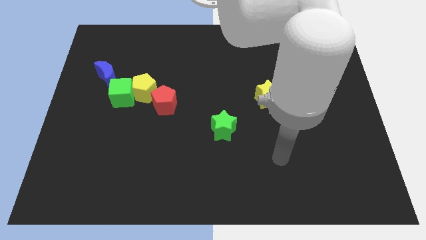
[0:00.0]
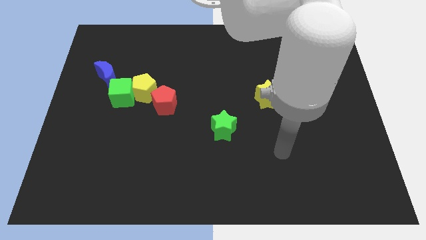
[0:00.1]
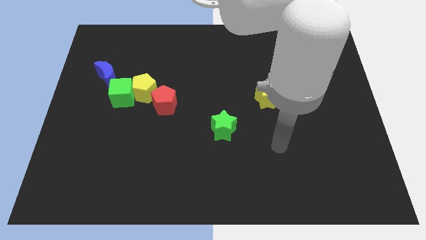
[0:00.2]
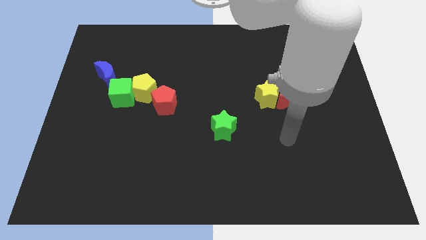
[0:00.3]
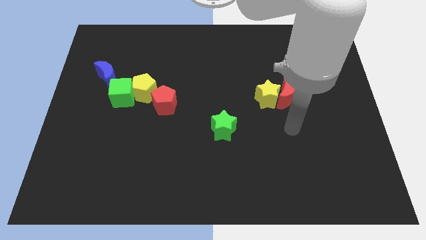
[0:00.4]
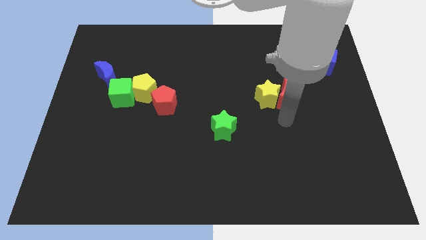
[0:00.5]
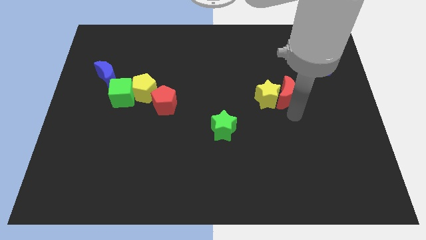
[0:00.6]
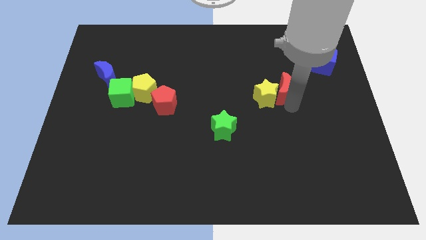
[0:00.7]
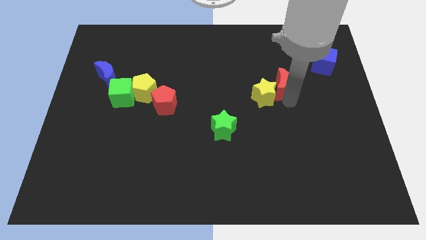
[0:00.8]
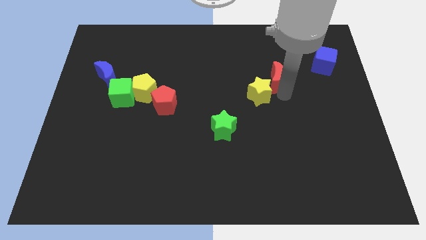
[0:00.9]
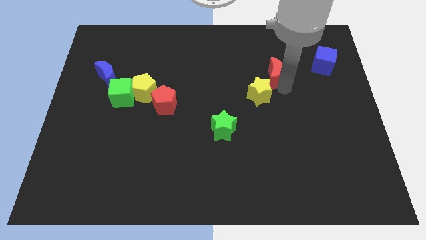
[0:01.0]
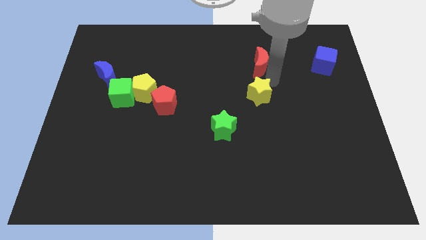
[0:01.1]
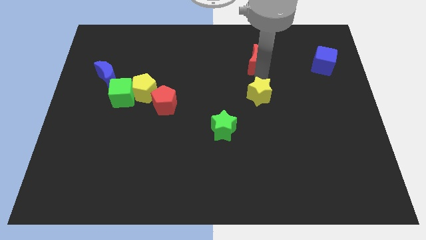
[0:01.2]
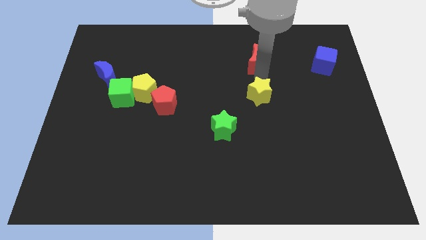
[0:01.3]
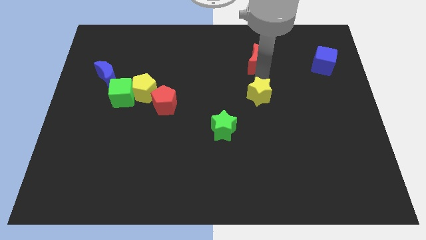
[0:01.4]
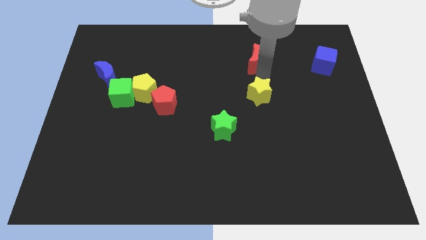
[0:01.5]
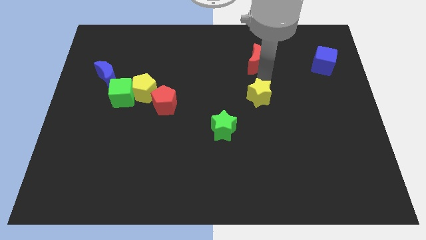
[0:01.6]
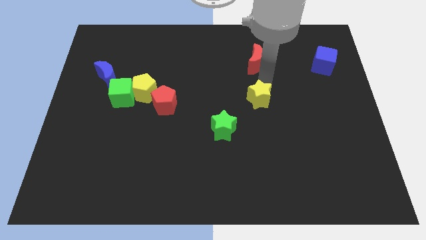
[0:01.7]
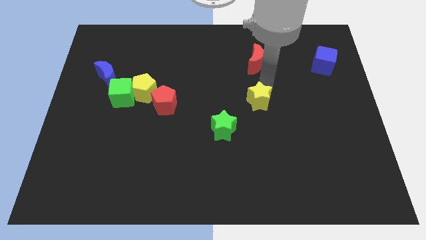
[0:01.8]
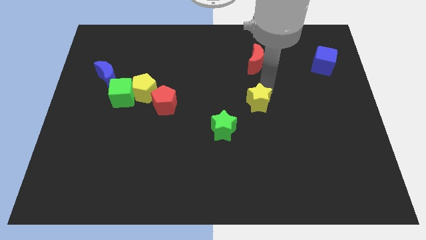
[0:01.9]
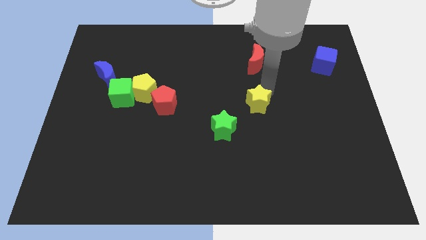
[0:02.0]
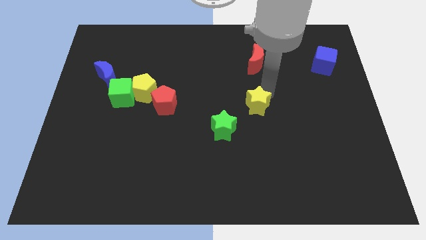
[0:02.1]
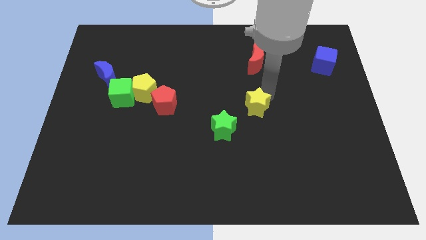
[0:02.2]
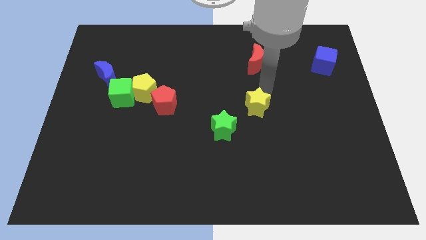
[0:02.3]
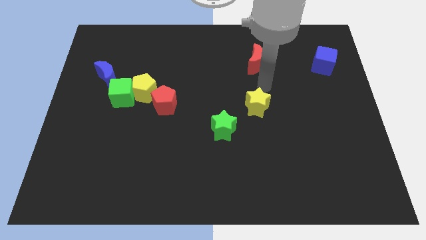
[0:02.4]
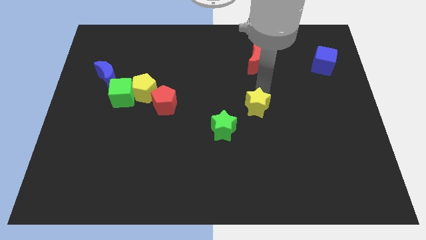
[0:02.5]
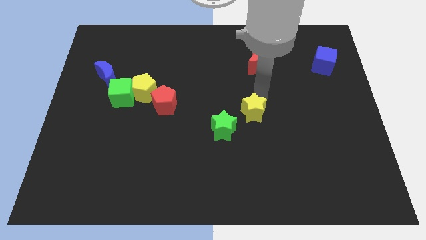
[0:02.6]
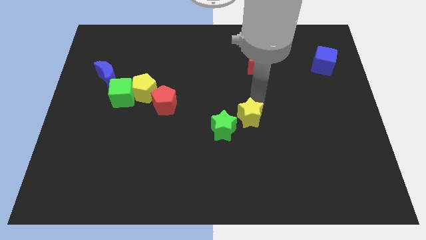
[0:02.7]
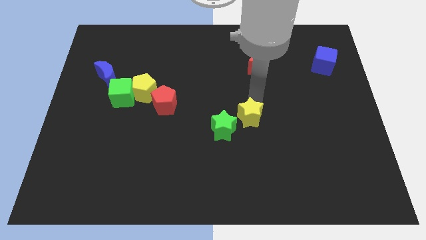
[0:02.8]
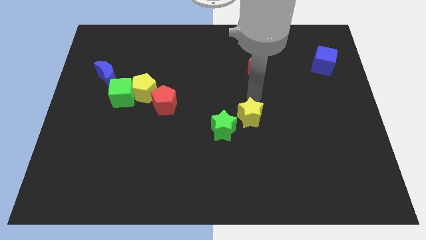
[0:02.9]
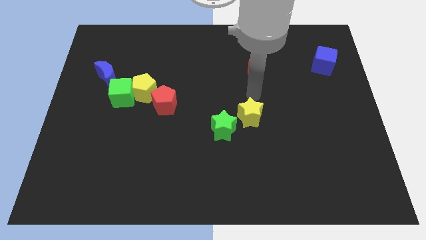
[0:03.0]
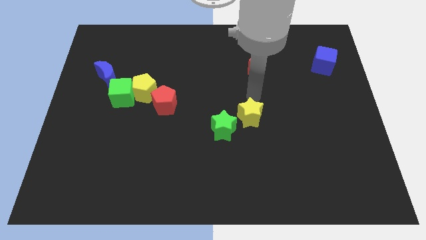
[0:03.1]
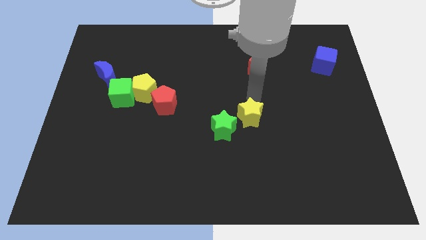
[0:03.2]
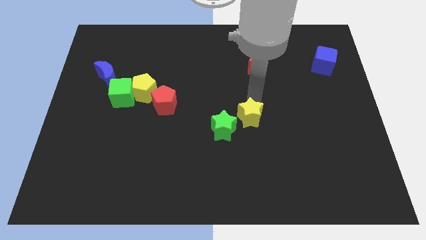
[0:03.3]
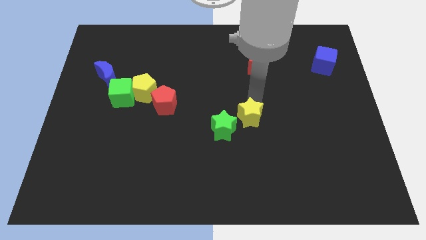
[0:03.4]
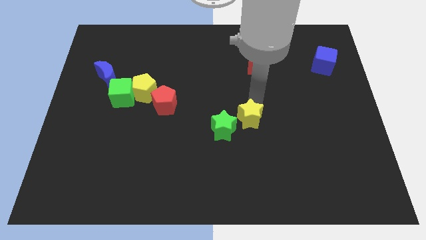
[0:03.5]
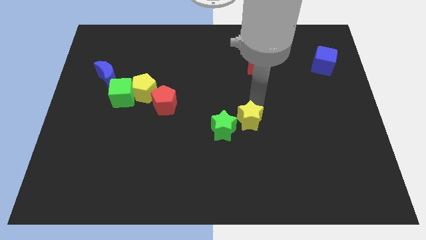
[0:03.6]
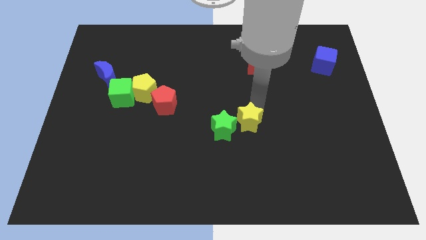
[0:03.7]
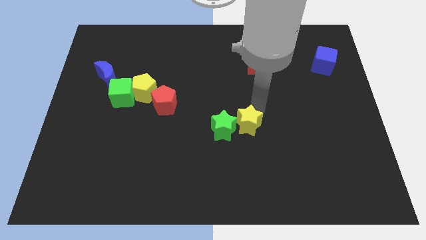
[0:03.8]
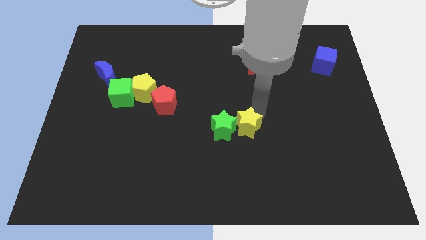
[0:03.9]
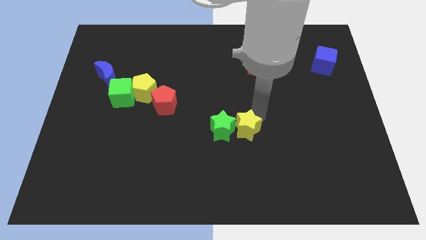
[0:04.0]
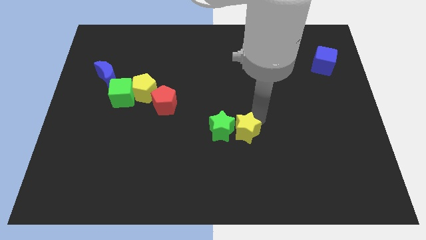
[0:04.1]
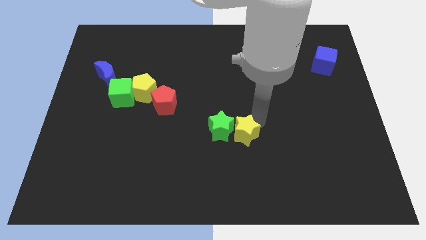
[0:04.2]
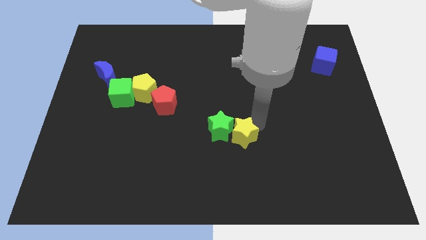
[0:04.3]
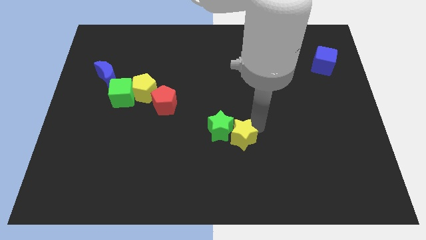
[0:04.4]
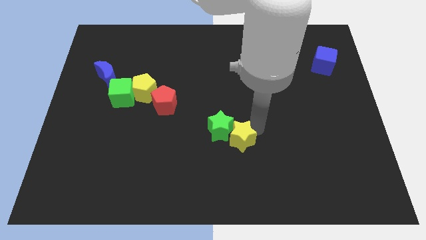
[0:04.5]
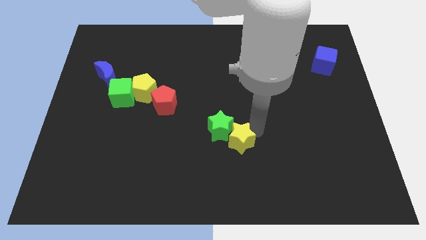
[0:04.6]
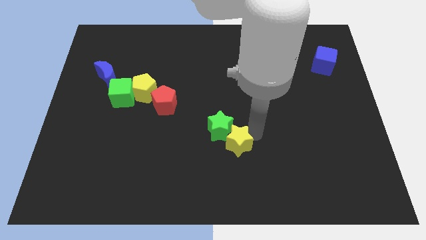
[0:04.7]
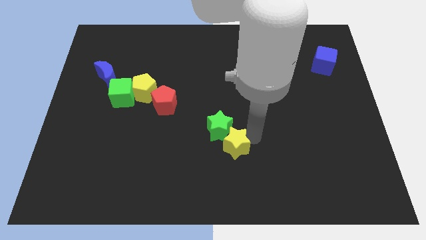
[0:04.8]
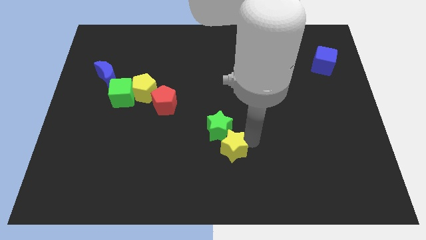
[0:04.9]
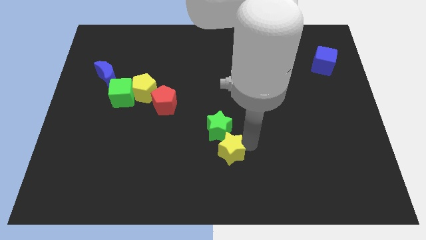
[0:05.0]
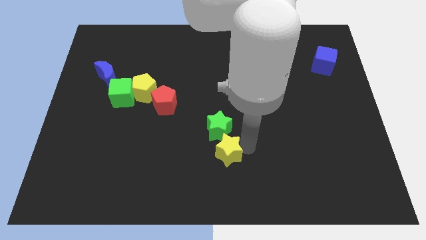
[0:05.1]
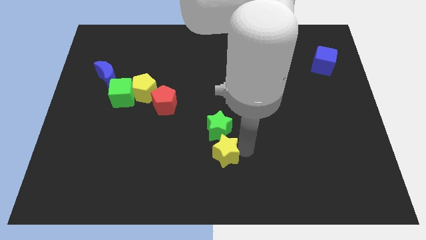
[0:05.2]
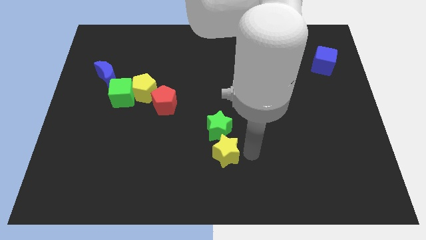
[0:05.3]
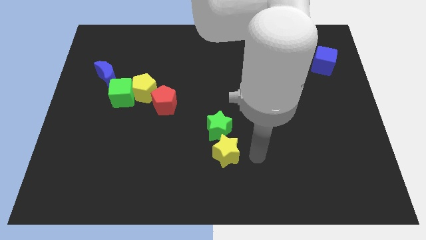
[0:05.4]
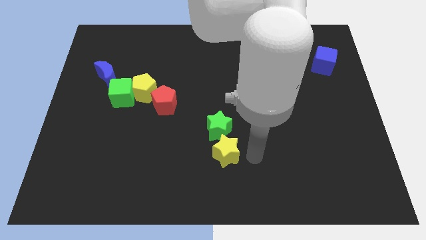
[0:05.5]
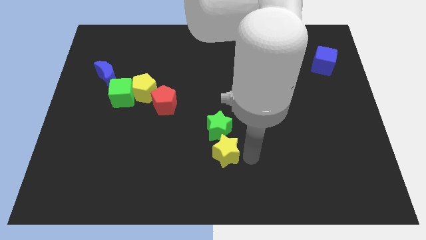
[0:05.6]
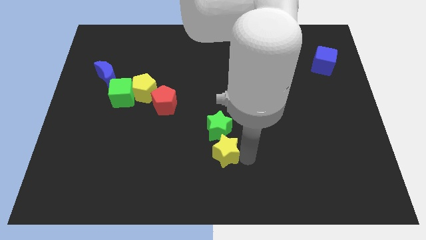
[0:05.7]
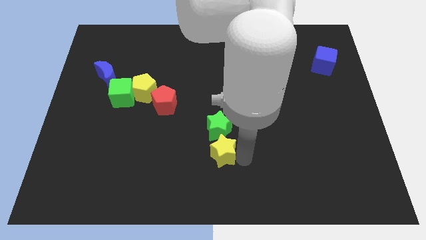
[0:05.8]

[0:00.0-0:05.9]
slide the yellow star to the bottom left of the green star

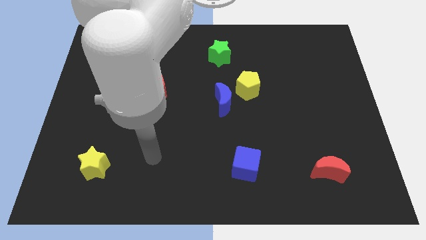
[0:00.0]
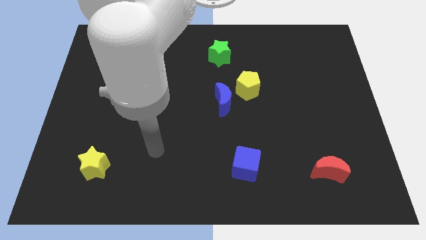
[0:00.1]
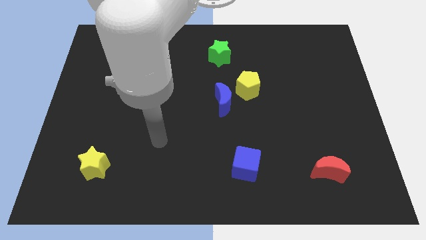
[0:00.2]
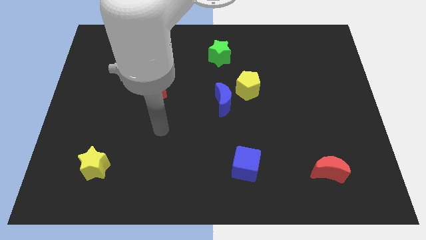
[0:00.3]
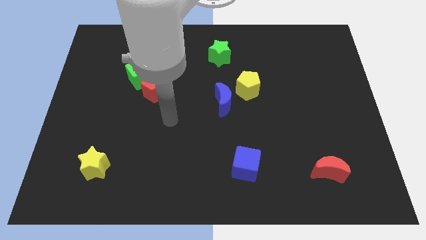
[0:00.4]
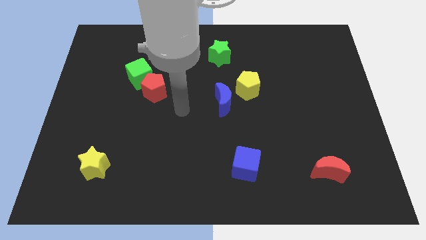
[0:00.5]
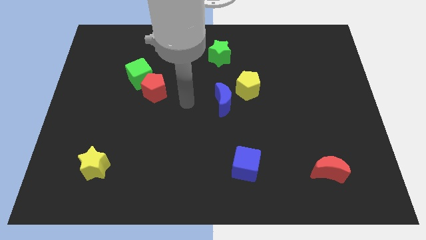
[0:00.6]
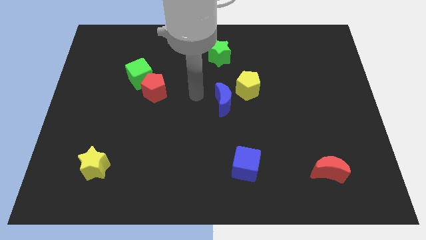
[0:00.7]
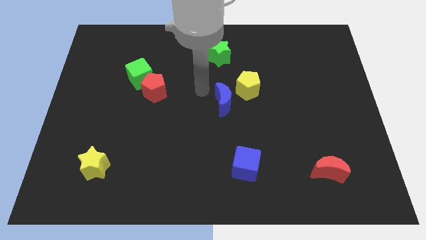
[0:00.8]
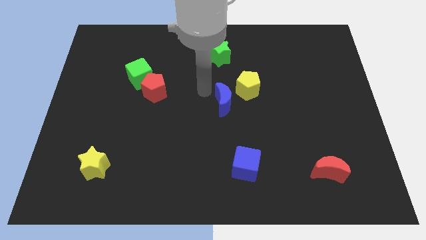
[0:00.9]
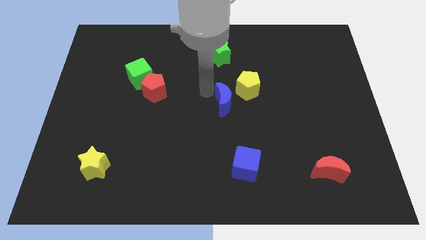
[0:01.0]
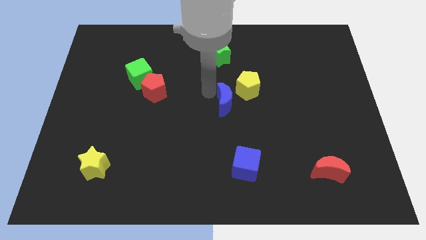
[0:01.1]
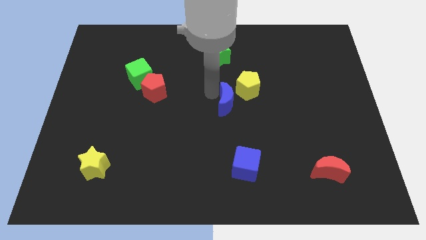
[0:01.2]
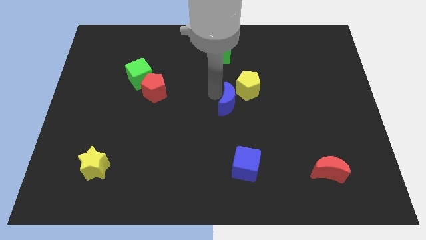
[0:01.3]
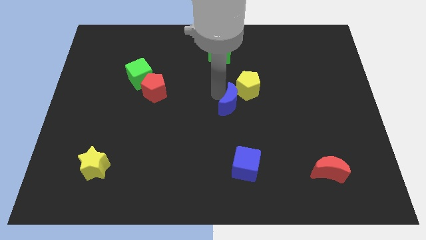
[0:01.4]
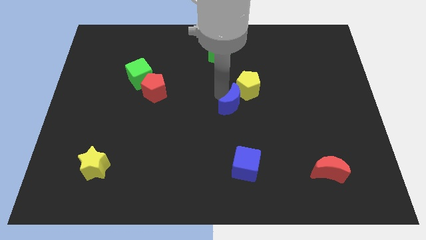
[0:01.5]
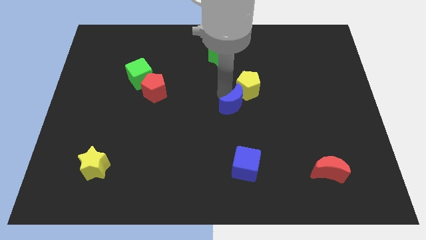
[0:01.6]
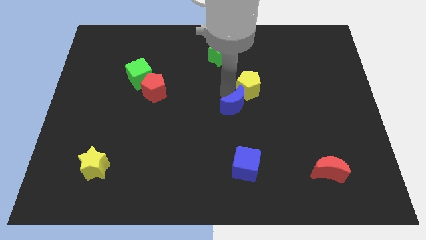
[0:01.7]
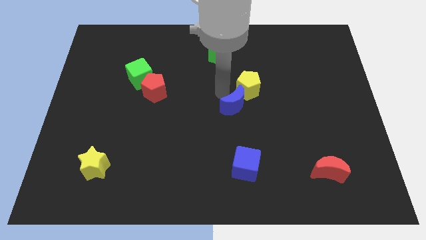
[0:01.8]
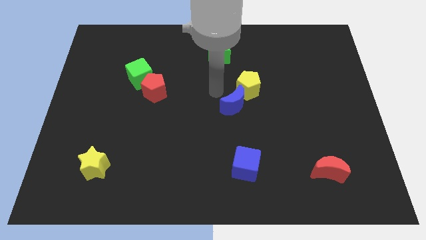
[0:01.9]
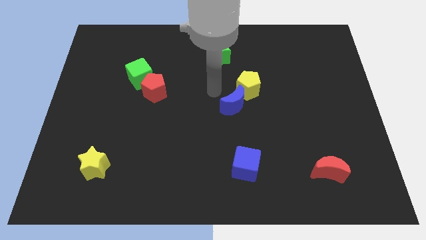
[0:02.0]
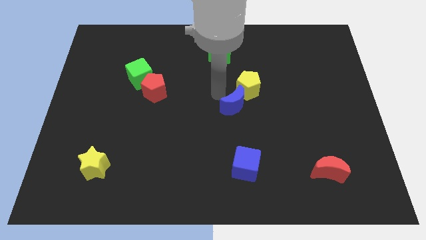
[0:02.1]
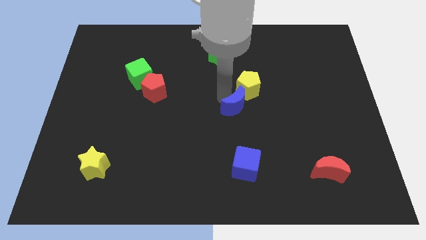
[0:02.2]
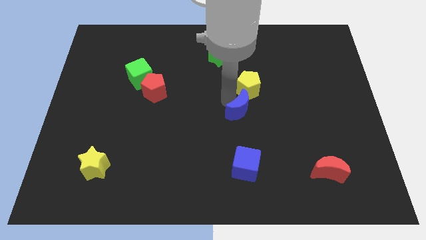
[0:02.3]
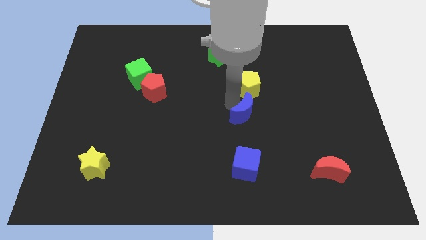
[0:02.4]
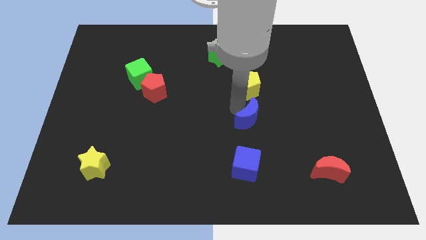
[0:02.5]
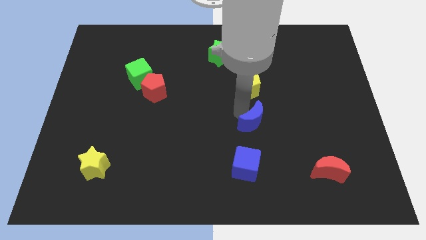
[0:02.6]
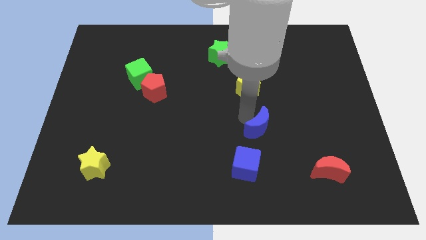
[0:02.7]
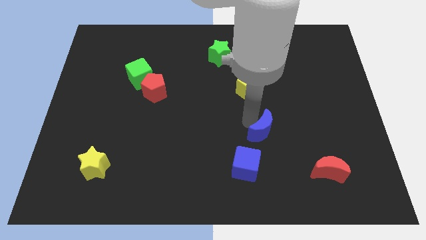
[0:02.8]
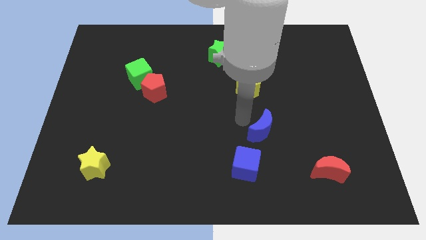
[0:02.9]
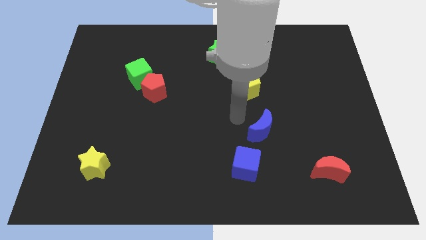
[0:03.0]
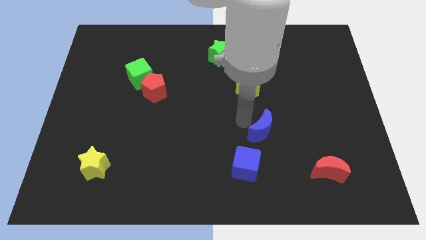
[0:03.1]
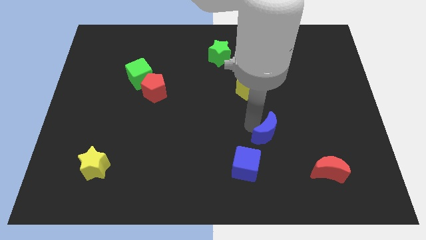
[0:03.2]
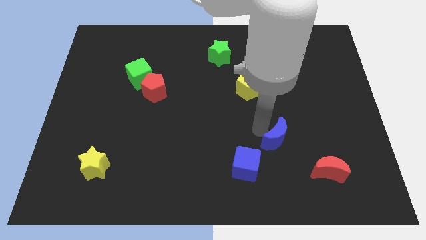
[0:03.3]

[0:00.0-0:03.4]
move the blue moon to the top left side of the red moon
